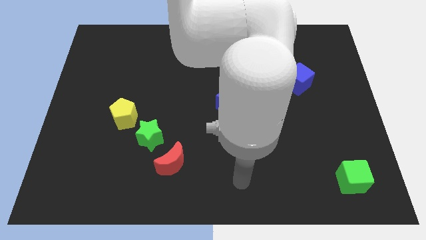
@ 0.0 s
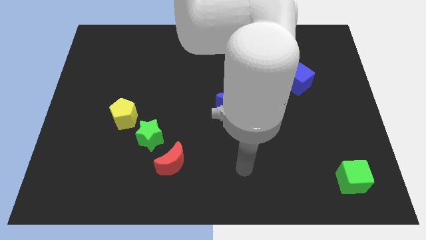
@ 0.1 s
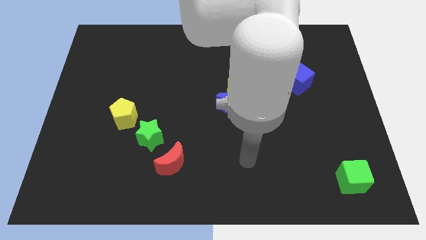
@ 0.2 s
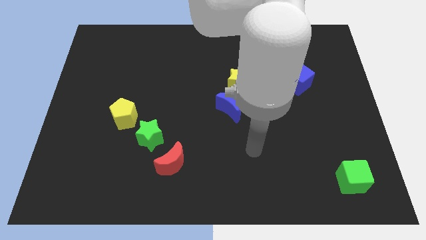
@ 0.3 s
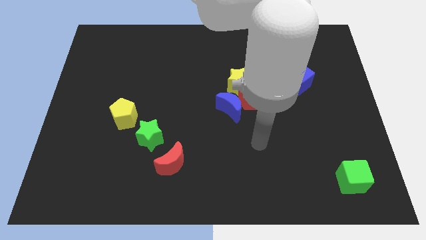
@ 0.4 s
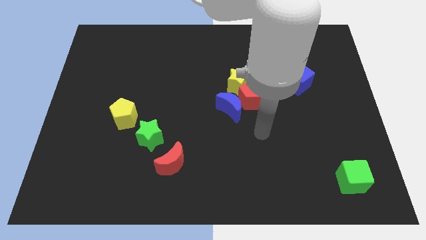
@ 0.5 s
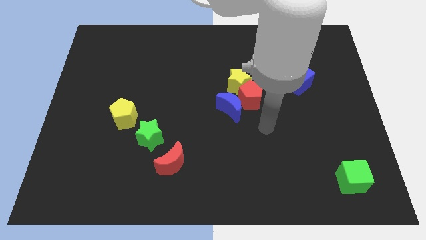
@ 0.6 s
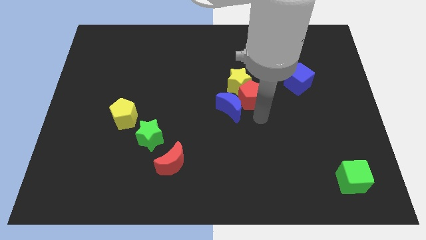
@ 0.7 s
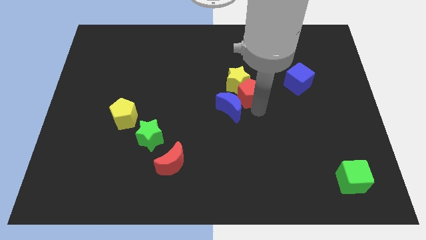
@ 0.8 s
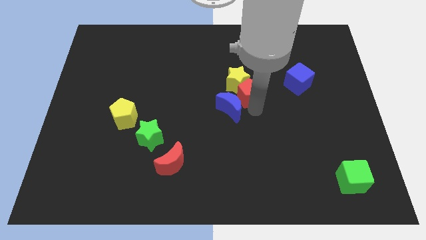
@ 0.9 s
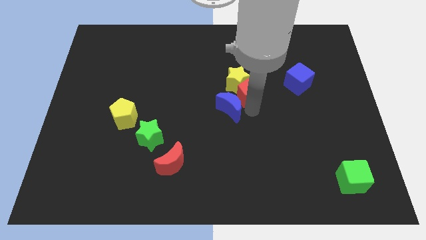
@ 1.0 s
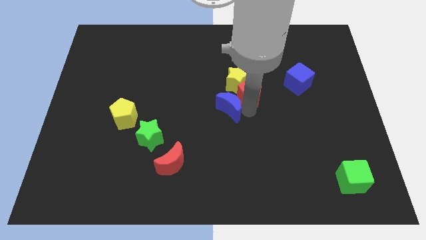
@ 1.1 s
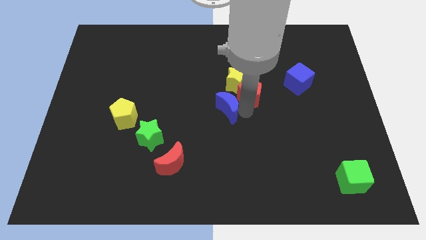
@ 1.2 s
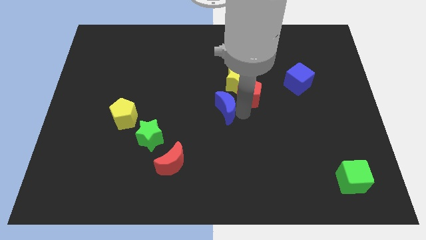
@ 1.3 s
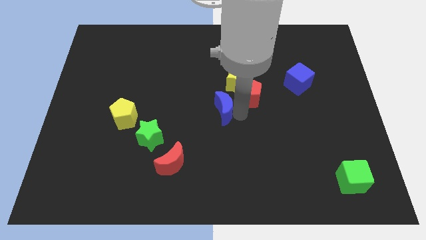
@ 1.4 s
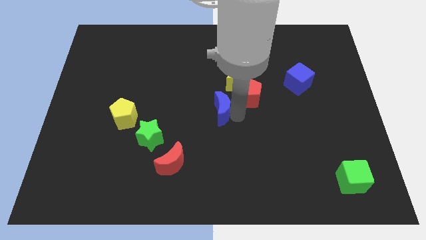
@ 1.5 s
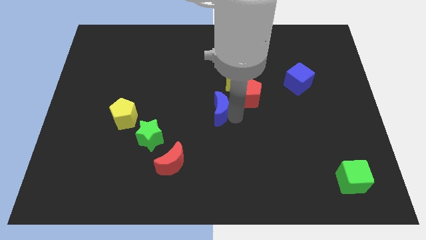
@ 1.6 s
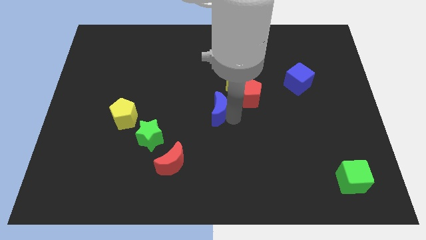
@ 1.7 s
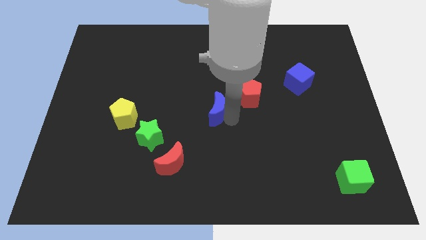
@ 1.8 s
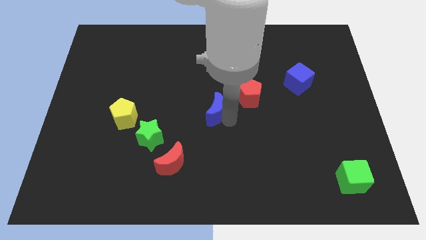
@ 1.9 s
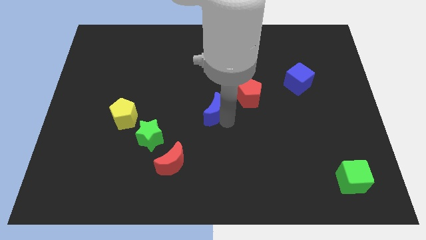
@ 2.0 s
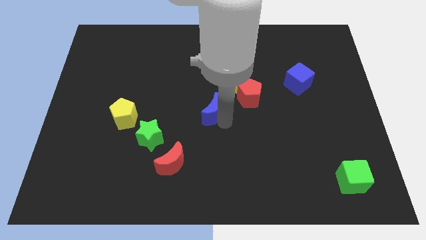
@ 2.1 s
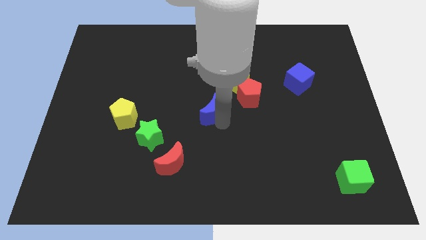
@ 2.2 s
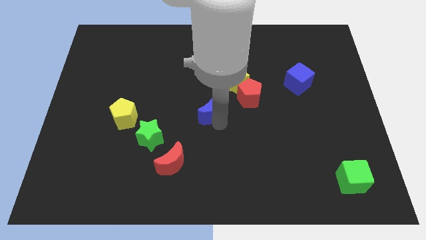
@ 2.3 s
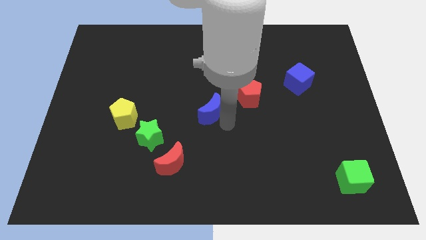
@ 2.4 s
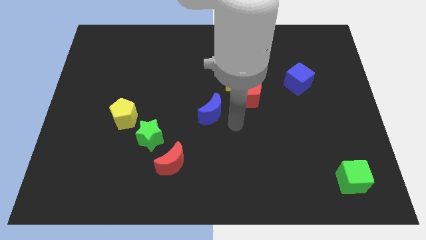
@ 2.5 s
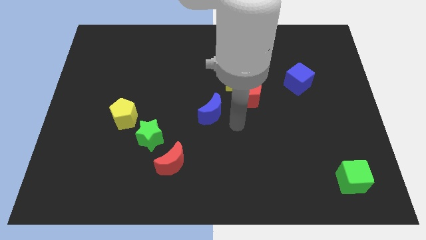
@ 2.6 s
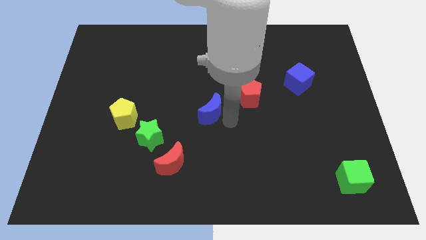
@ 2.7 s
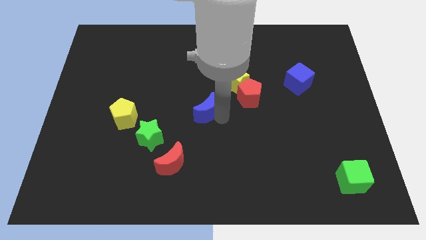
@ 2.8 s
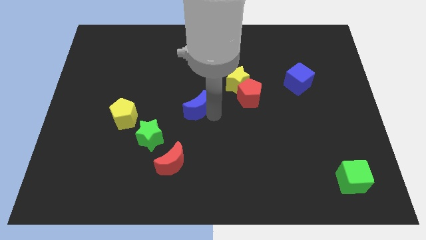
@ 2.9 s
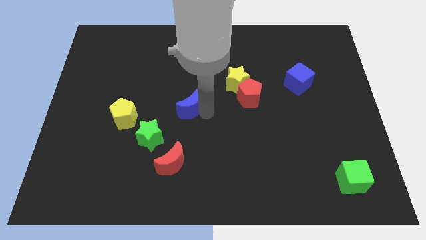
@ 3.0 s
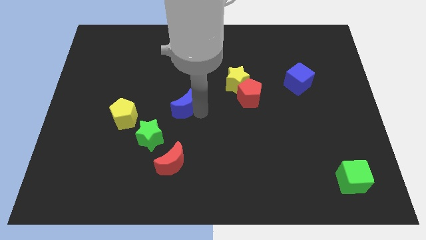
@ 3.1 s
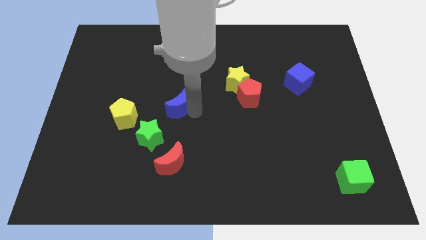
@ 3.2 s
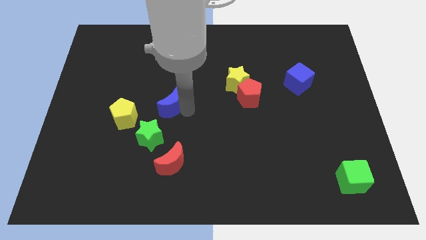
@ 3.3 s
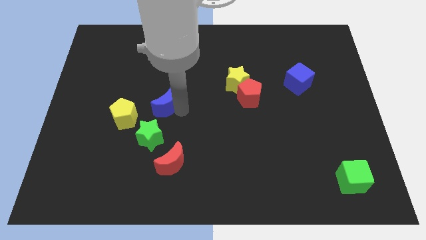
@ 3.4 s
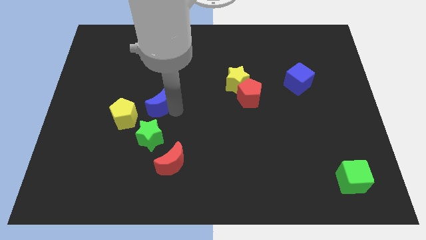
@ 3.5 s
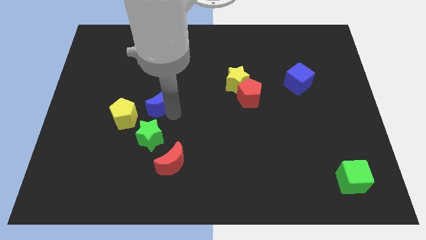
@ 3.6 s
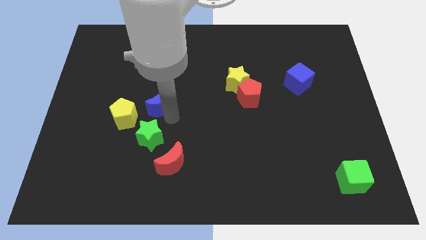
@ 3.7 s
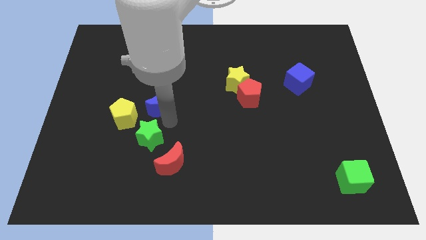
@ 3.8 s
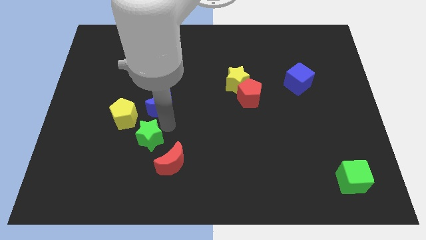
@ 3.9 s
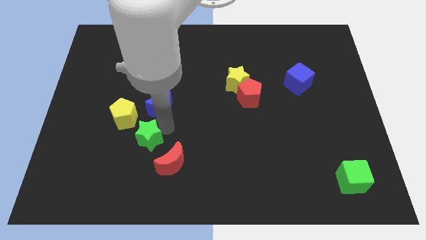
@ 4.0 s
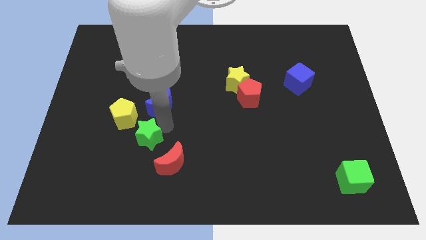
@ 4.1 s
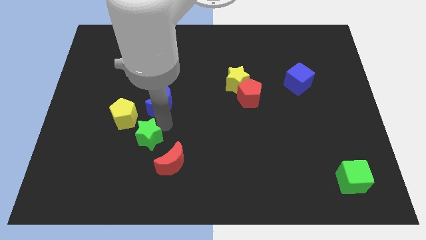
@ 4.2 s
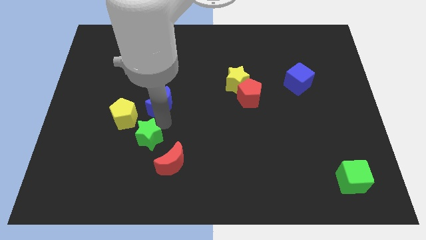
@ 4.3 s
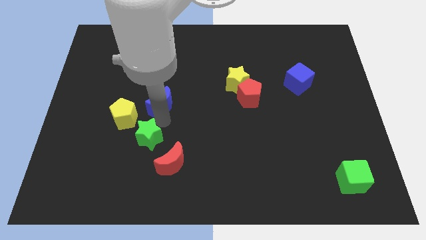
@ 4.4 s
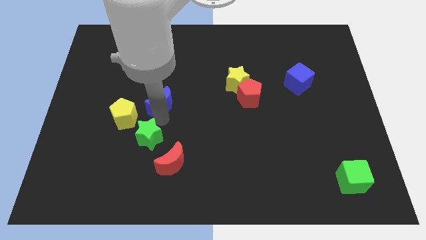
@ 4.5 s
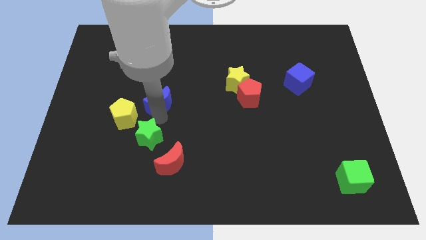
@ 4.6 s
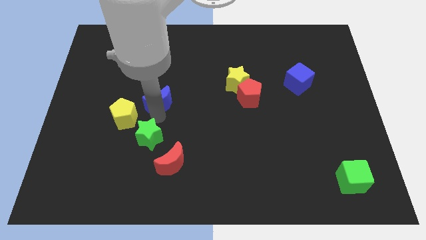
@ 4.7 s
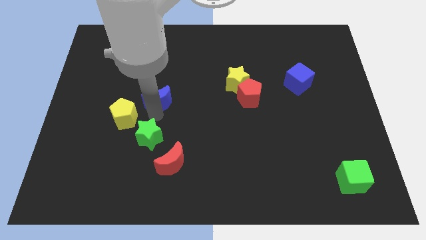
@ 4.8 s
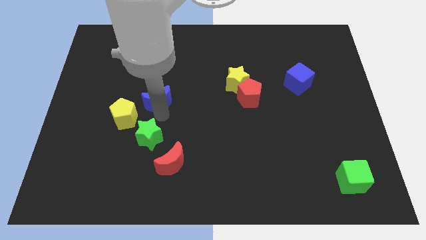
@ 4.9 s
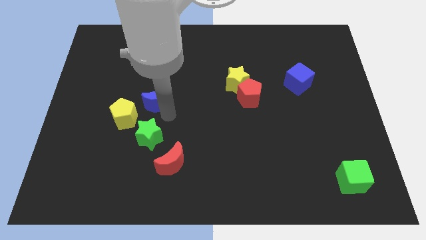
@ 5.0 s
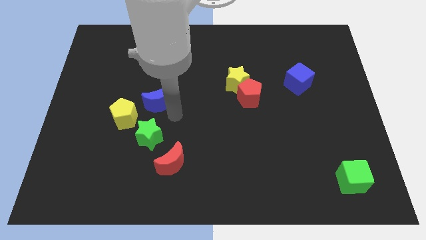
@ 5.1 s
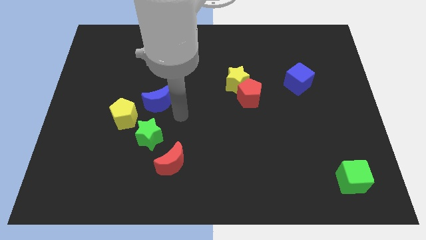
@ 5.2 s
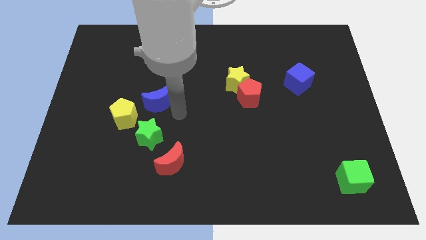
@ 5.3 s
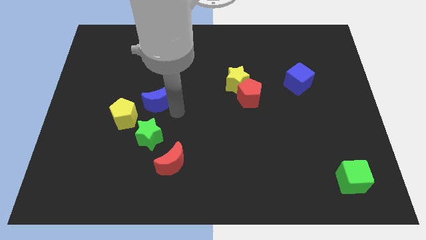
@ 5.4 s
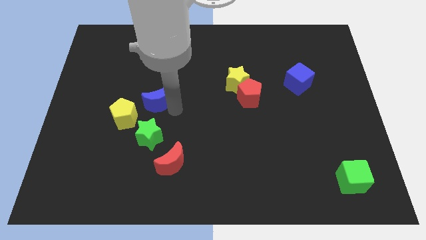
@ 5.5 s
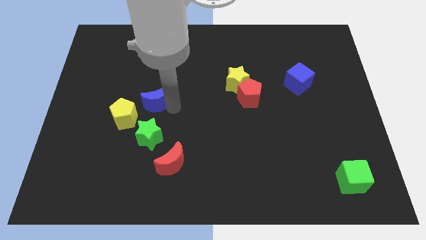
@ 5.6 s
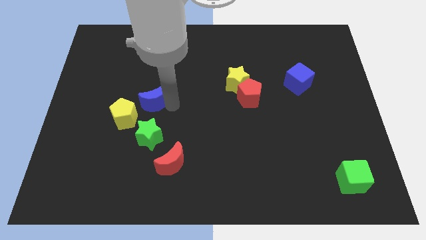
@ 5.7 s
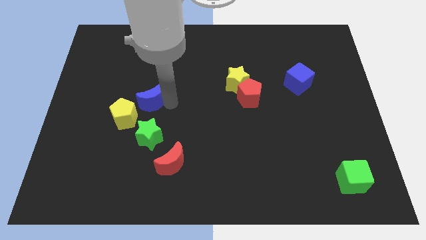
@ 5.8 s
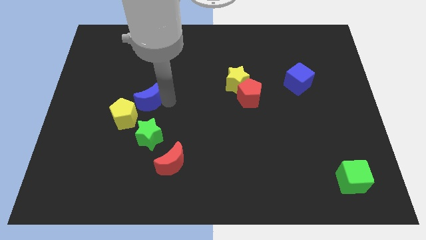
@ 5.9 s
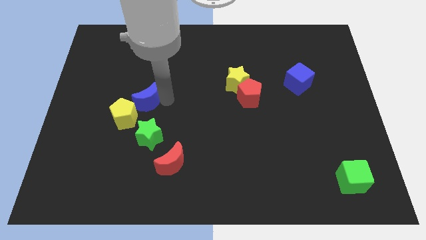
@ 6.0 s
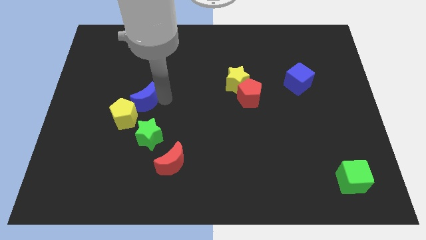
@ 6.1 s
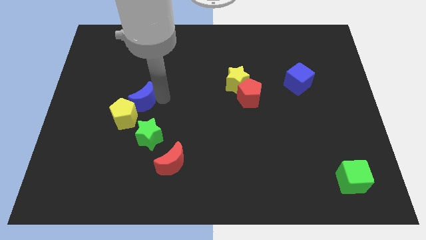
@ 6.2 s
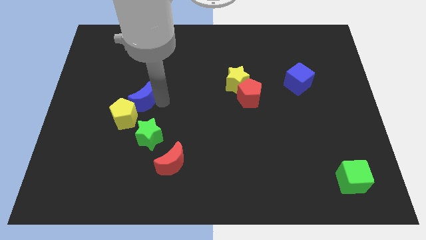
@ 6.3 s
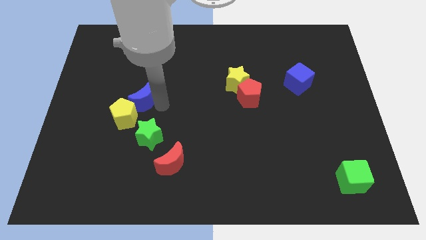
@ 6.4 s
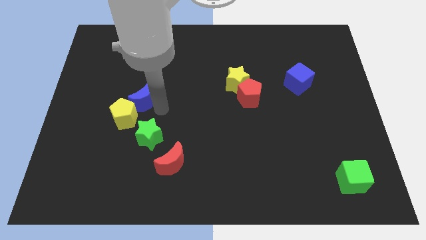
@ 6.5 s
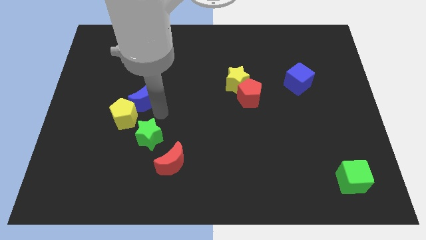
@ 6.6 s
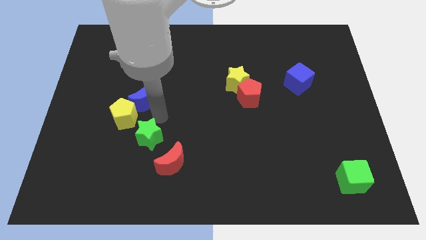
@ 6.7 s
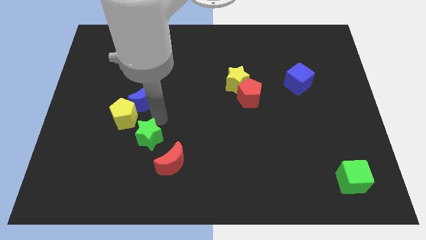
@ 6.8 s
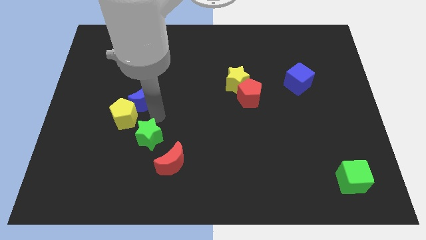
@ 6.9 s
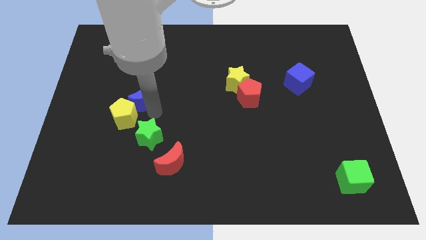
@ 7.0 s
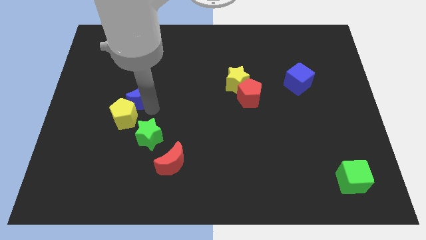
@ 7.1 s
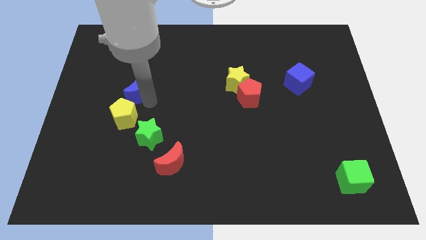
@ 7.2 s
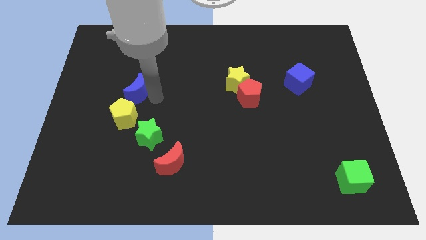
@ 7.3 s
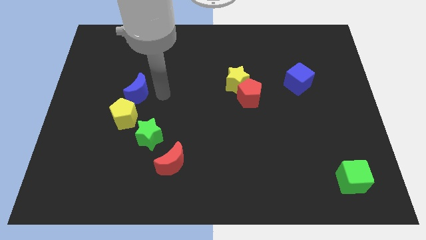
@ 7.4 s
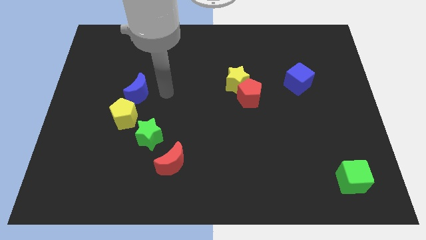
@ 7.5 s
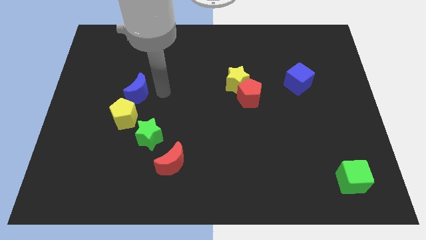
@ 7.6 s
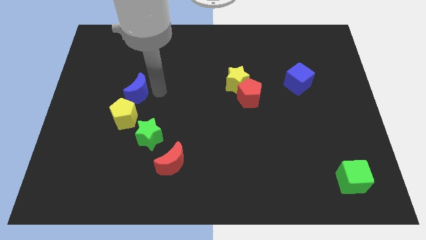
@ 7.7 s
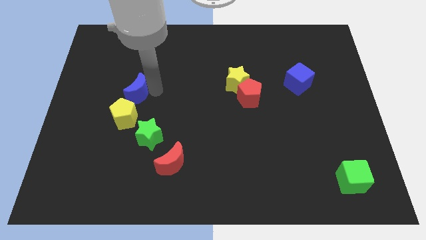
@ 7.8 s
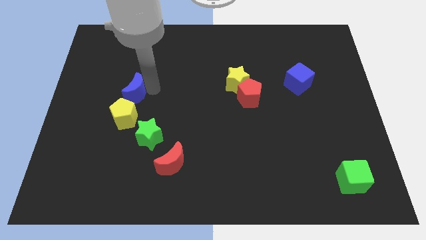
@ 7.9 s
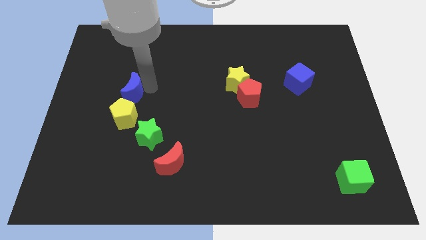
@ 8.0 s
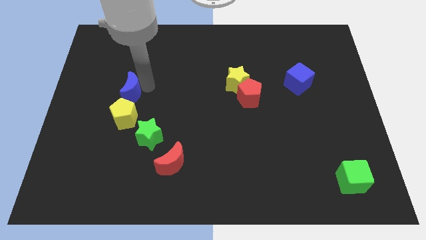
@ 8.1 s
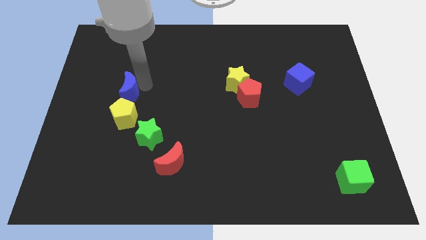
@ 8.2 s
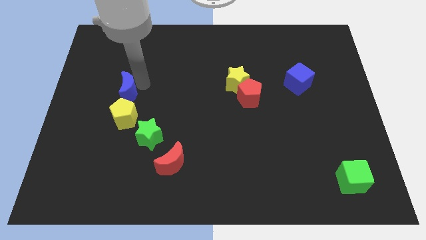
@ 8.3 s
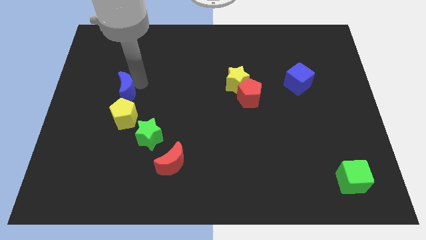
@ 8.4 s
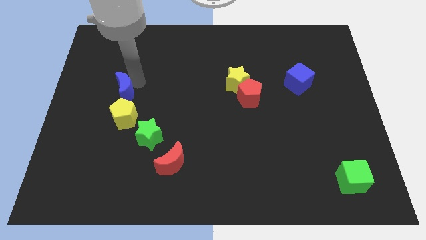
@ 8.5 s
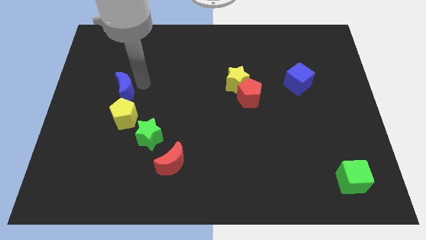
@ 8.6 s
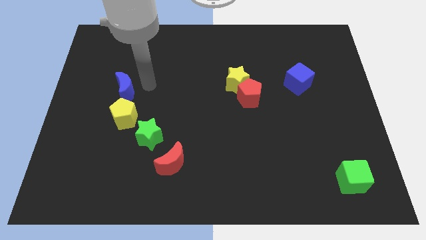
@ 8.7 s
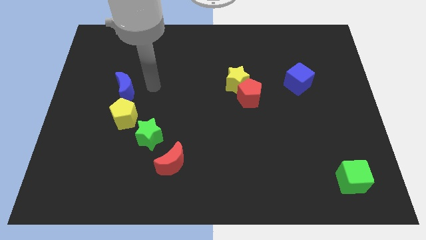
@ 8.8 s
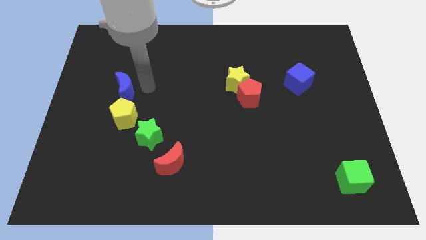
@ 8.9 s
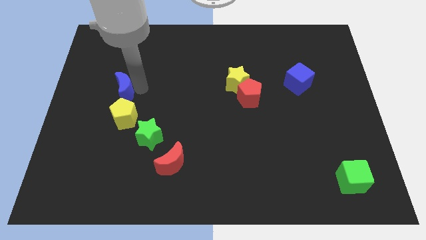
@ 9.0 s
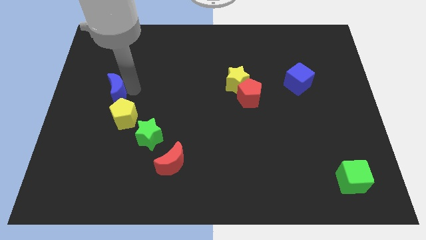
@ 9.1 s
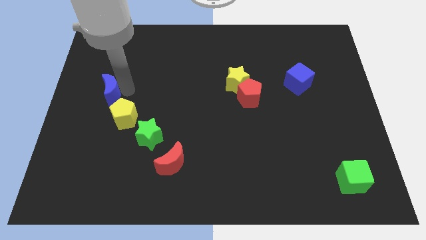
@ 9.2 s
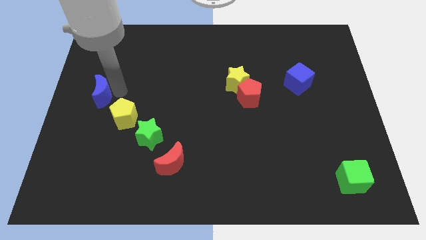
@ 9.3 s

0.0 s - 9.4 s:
push the blue moon to the center left
